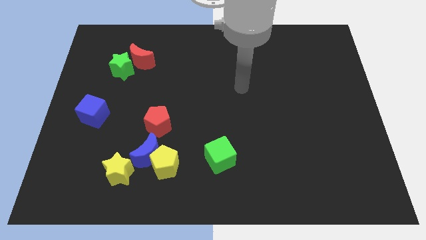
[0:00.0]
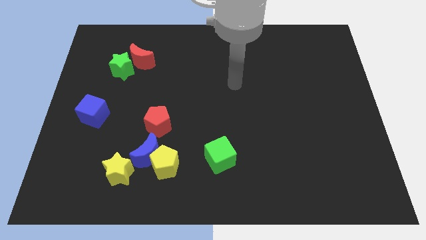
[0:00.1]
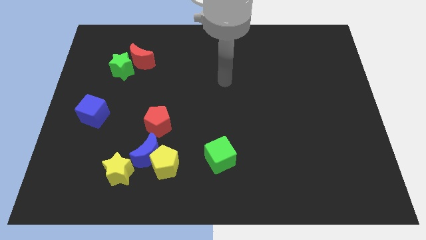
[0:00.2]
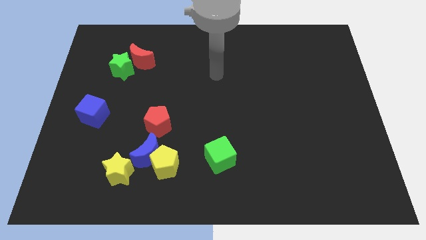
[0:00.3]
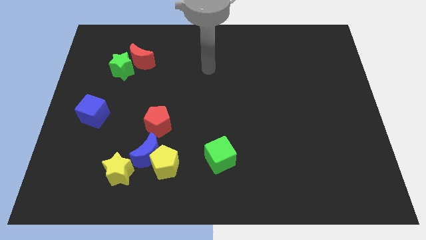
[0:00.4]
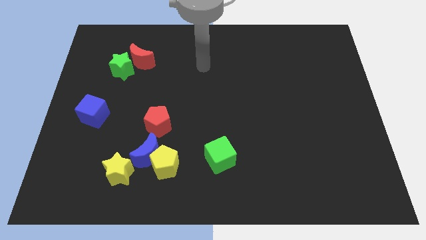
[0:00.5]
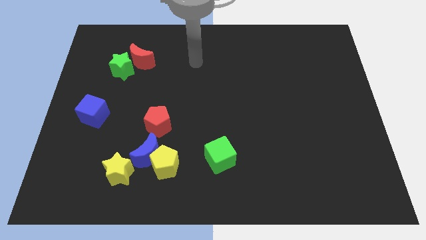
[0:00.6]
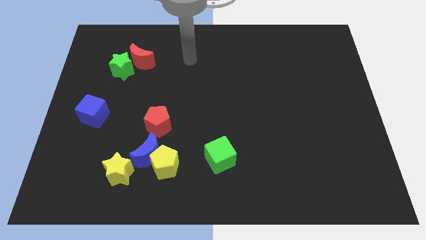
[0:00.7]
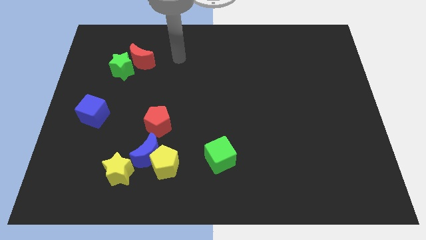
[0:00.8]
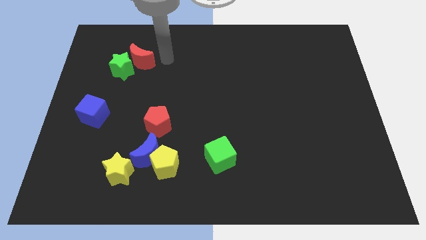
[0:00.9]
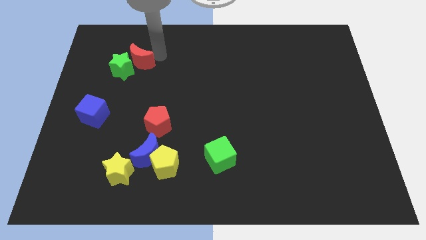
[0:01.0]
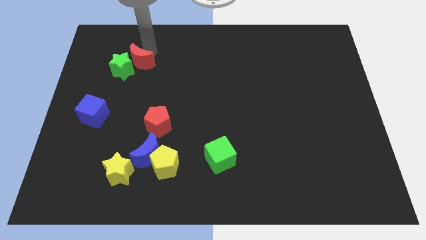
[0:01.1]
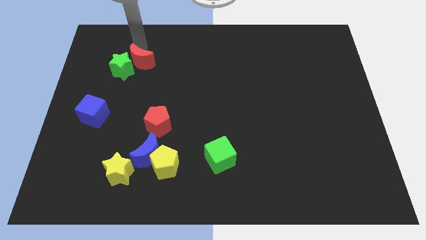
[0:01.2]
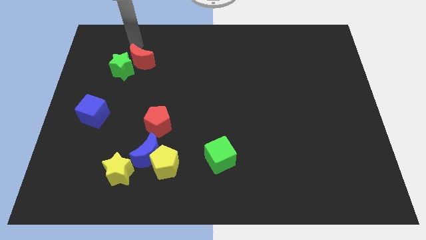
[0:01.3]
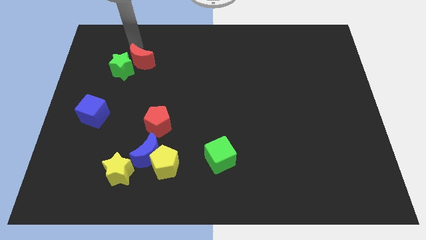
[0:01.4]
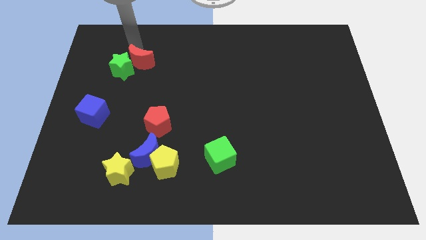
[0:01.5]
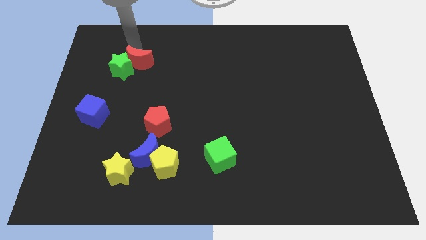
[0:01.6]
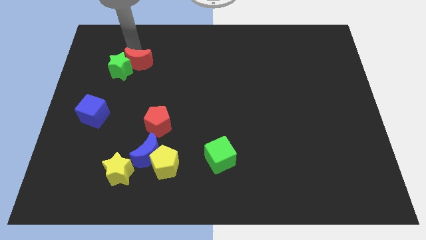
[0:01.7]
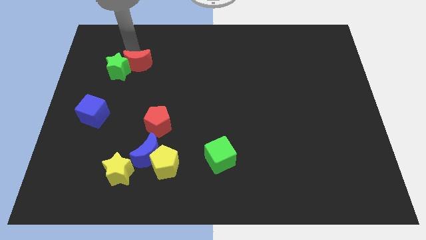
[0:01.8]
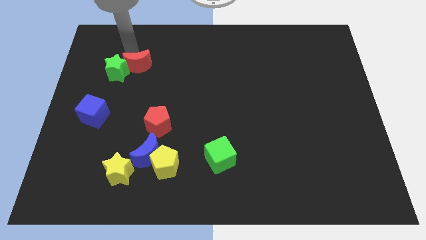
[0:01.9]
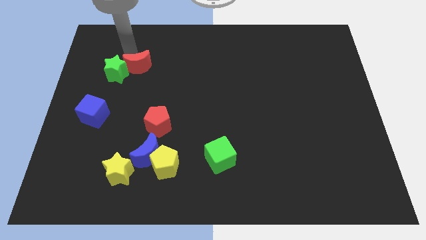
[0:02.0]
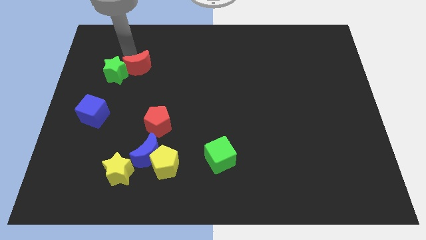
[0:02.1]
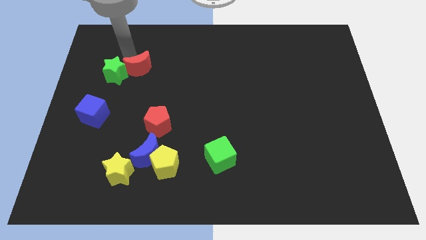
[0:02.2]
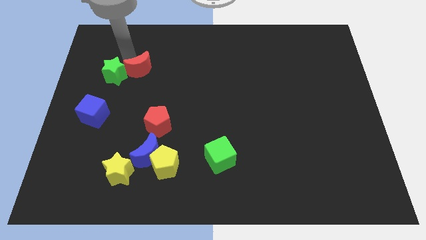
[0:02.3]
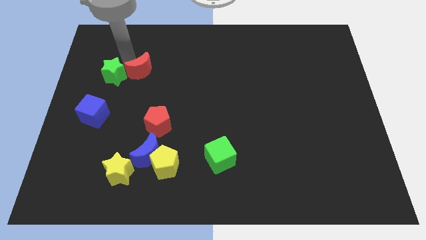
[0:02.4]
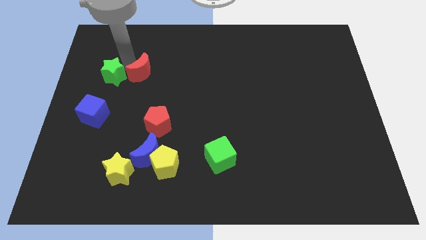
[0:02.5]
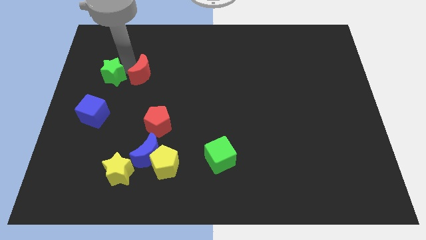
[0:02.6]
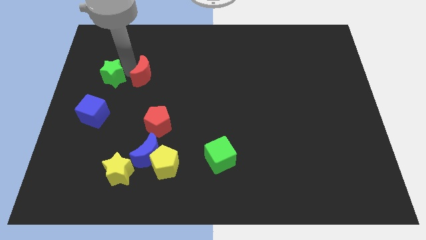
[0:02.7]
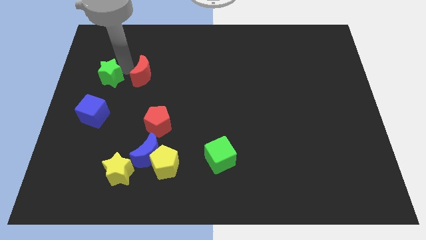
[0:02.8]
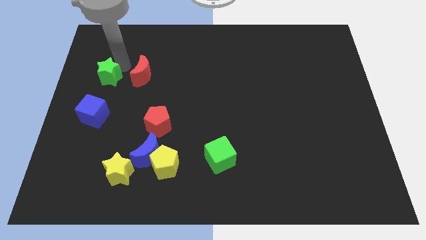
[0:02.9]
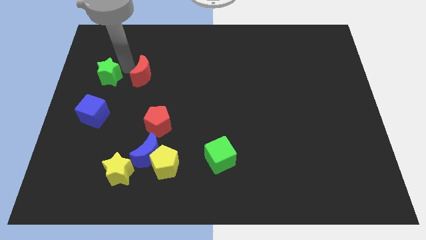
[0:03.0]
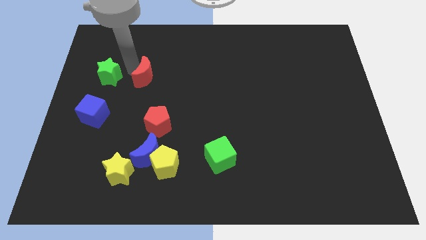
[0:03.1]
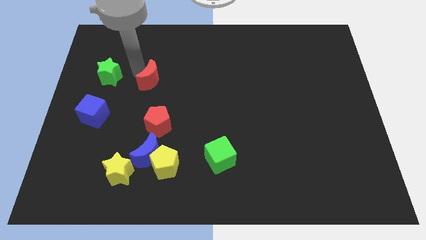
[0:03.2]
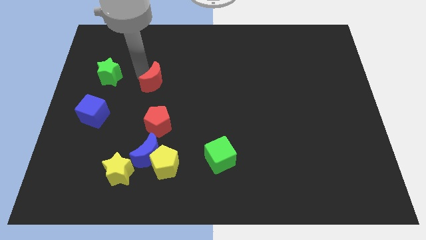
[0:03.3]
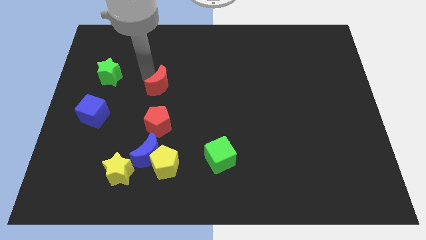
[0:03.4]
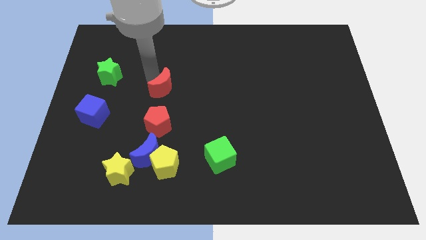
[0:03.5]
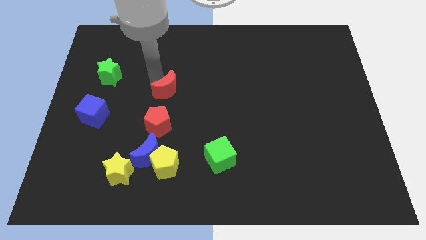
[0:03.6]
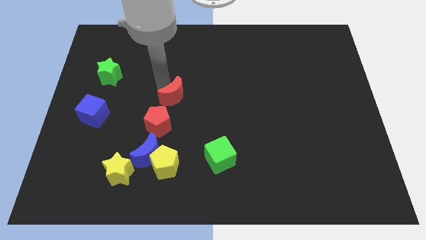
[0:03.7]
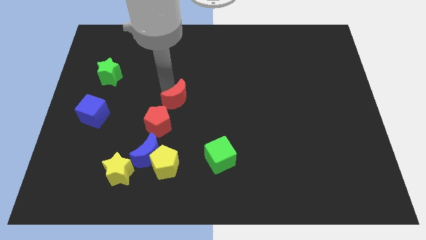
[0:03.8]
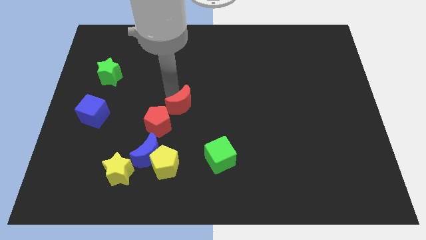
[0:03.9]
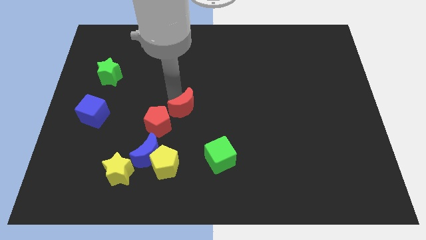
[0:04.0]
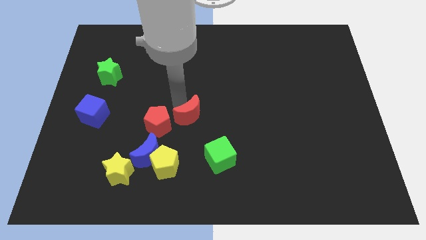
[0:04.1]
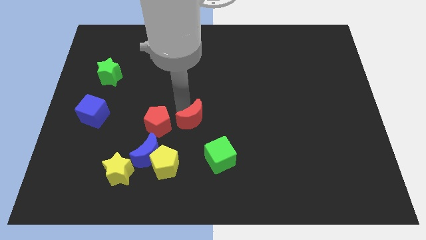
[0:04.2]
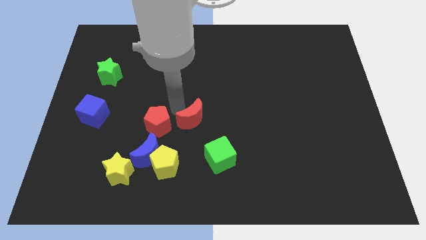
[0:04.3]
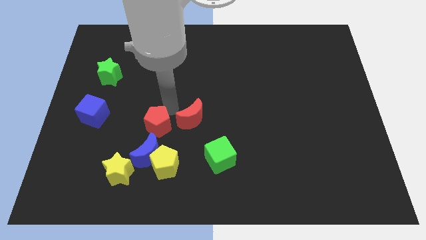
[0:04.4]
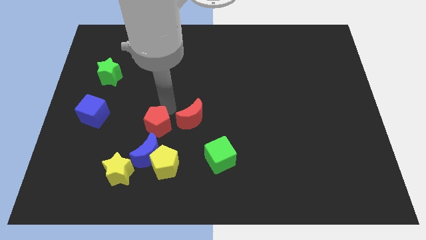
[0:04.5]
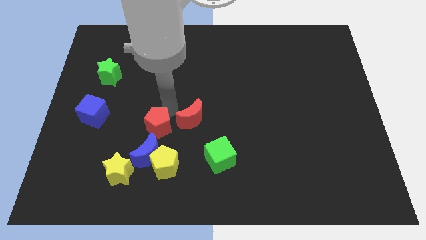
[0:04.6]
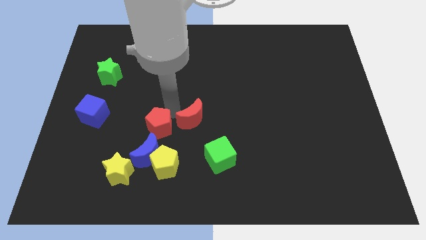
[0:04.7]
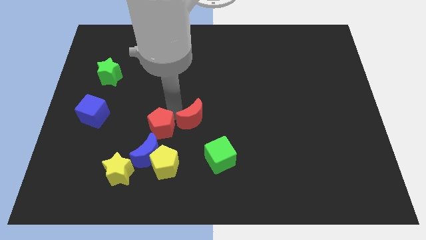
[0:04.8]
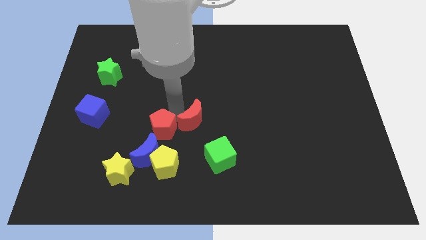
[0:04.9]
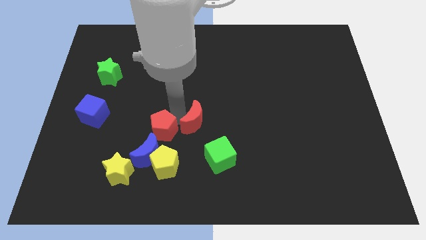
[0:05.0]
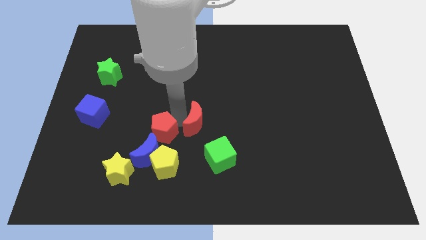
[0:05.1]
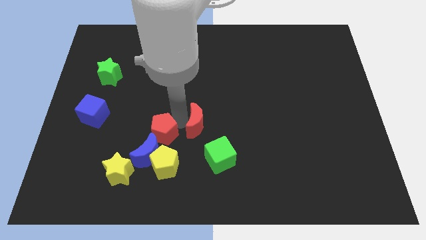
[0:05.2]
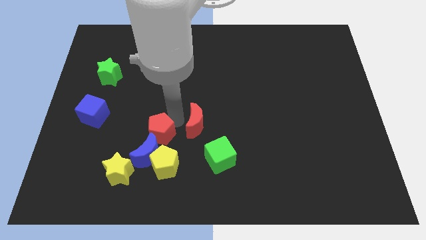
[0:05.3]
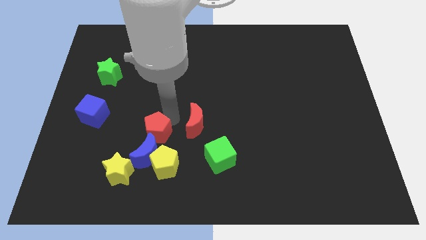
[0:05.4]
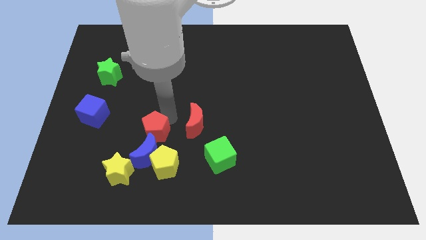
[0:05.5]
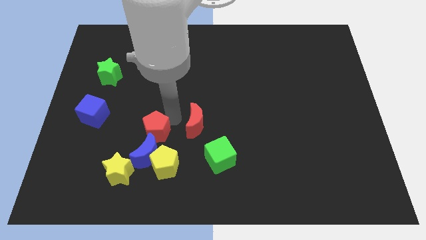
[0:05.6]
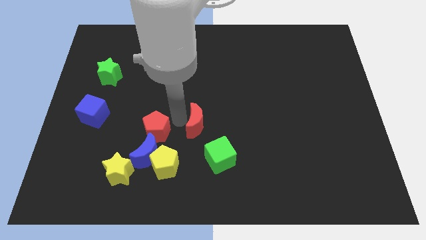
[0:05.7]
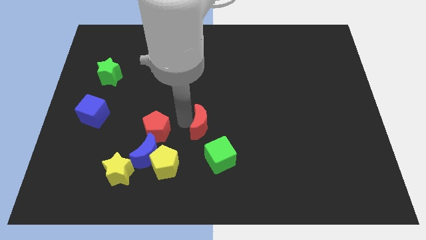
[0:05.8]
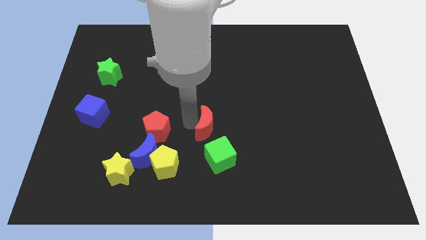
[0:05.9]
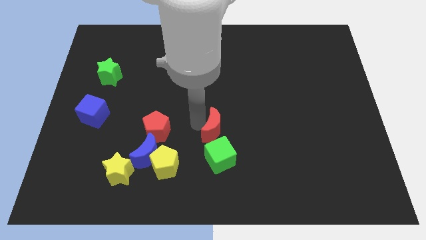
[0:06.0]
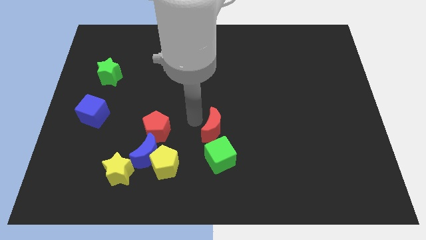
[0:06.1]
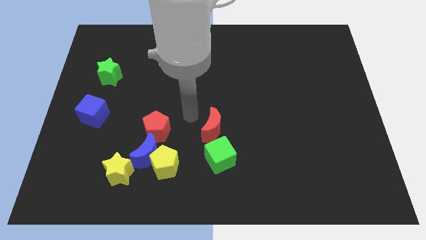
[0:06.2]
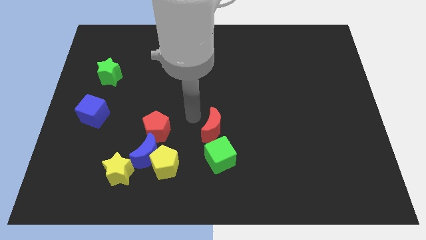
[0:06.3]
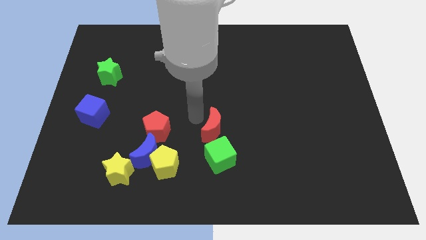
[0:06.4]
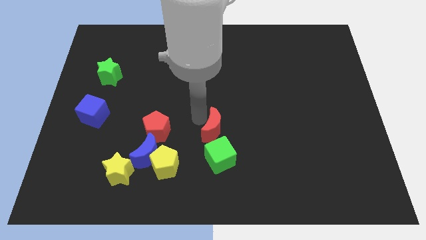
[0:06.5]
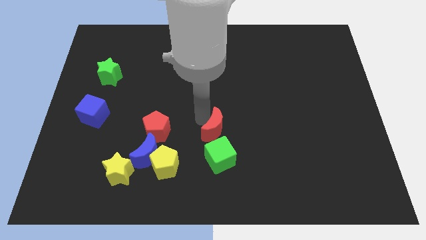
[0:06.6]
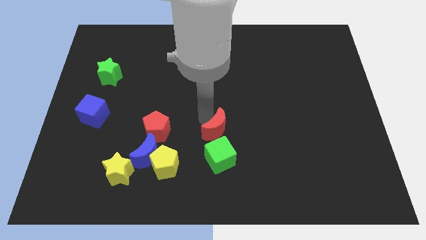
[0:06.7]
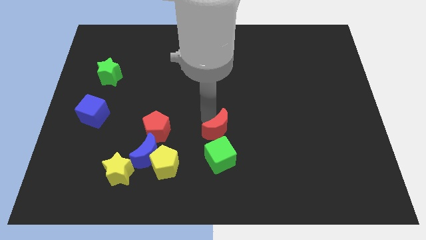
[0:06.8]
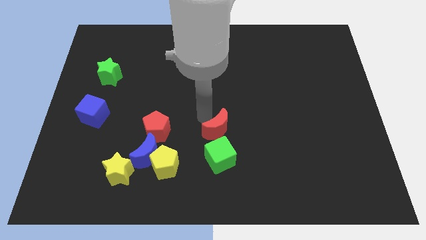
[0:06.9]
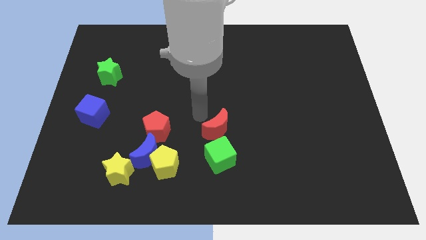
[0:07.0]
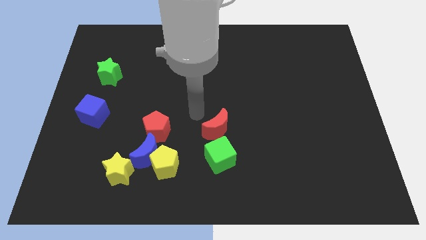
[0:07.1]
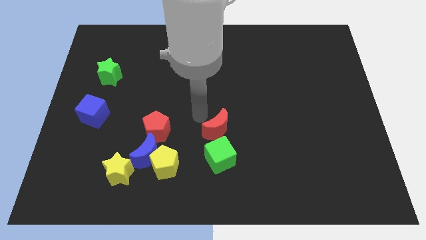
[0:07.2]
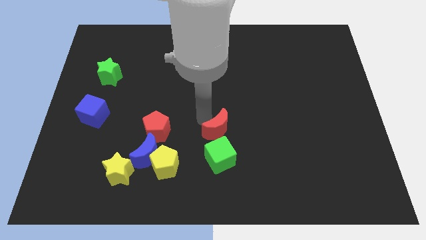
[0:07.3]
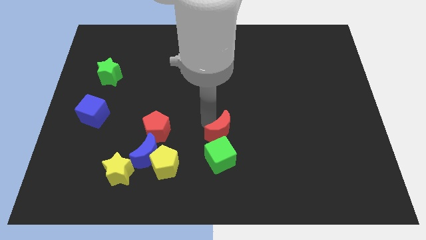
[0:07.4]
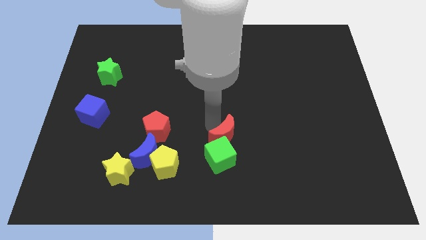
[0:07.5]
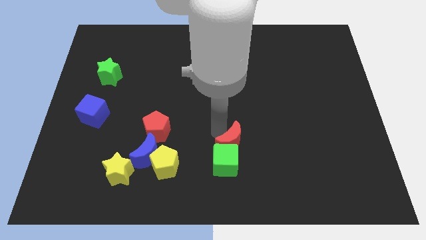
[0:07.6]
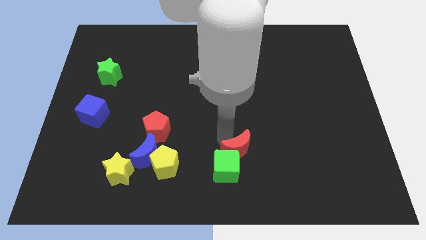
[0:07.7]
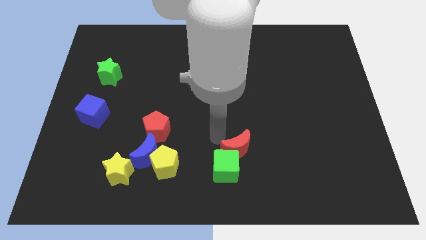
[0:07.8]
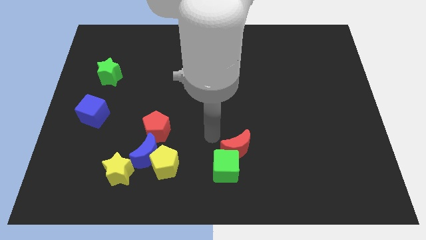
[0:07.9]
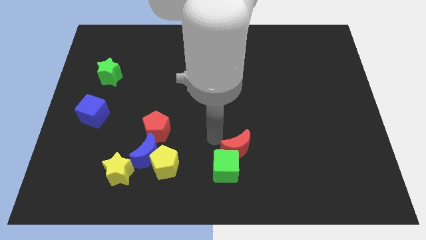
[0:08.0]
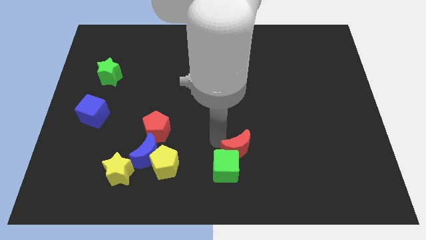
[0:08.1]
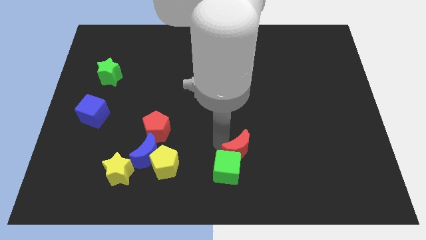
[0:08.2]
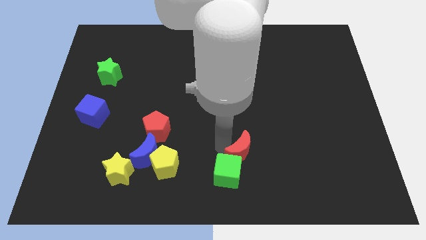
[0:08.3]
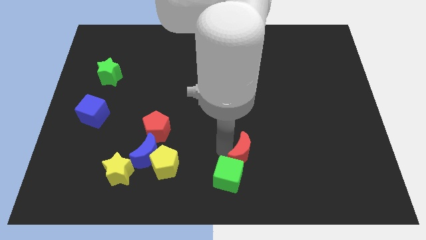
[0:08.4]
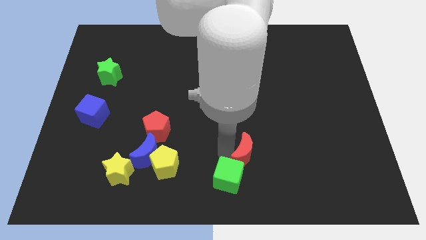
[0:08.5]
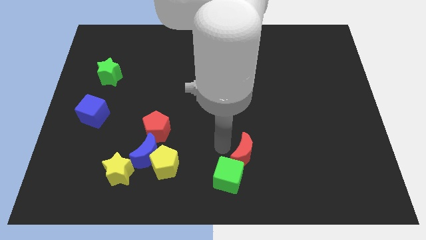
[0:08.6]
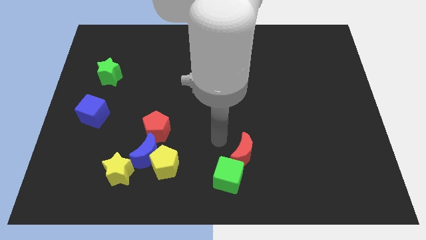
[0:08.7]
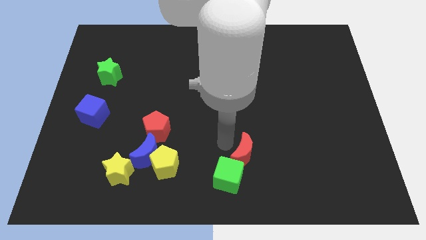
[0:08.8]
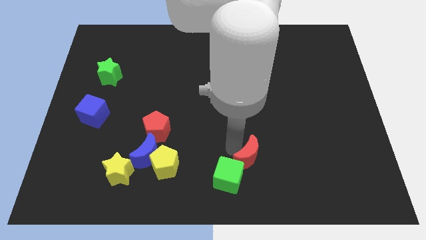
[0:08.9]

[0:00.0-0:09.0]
put the red moon just right of the green cube
